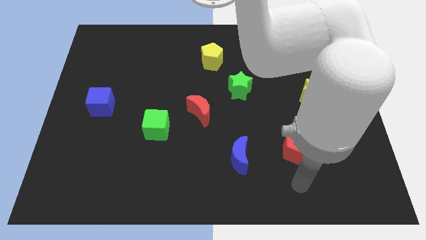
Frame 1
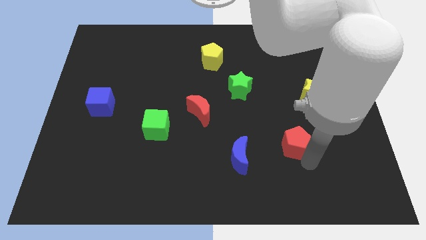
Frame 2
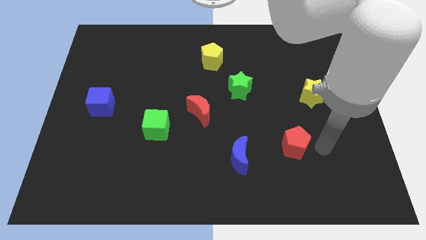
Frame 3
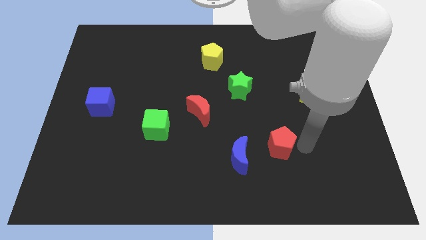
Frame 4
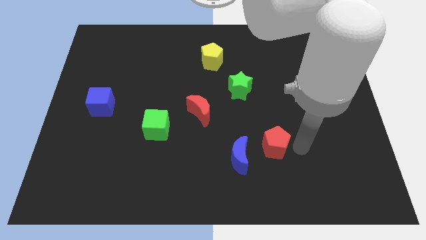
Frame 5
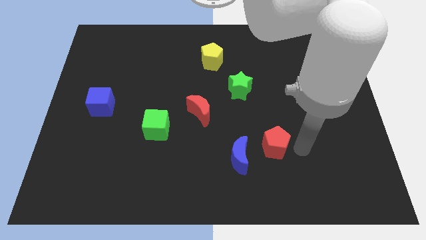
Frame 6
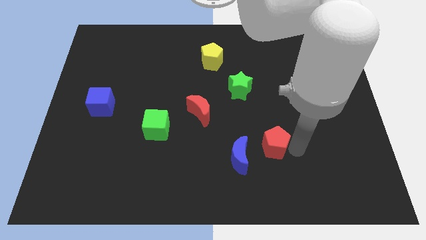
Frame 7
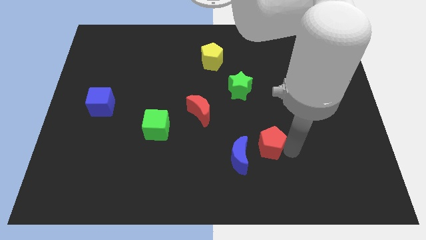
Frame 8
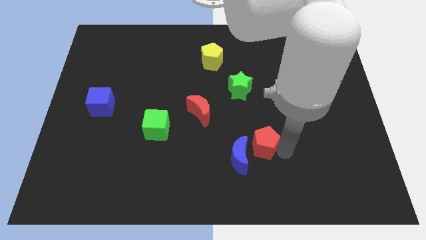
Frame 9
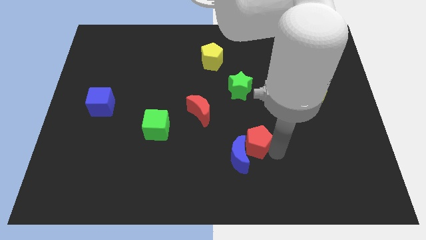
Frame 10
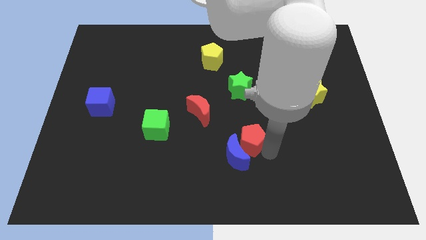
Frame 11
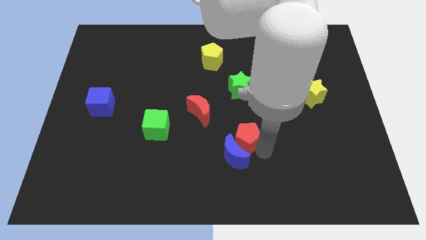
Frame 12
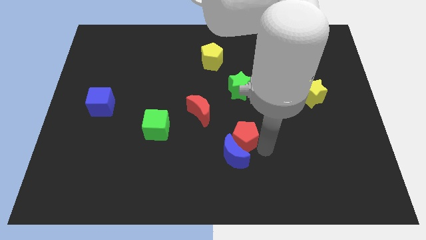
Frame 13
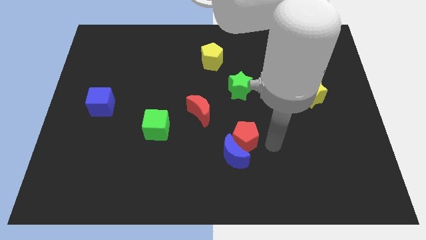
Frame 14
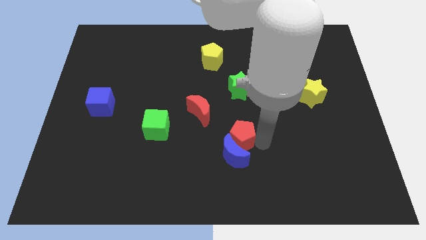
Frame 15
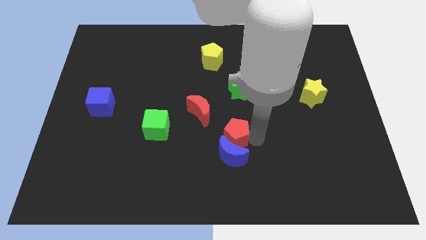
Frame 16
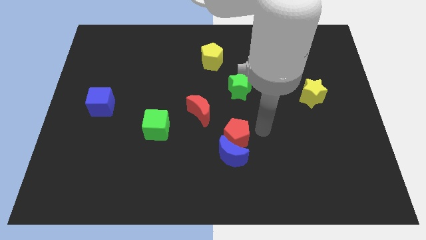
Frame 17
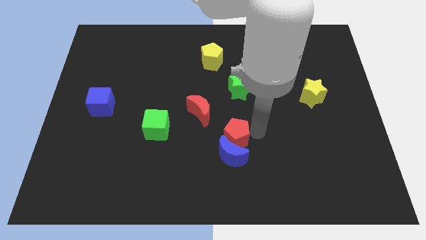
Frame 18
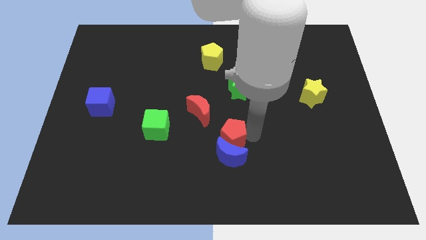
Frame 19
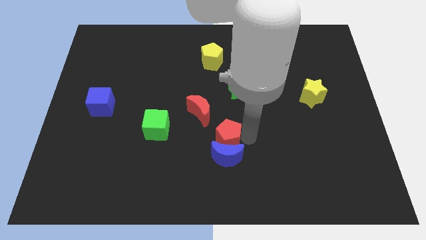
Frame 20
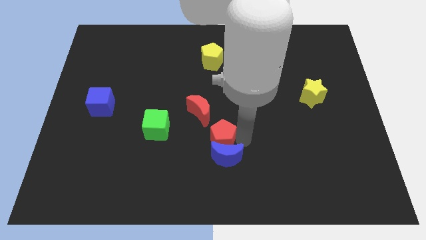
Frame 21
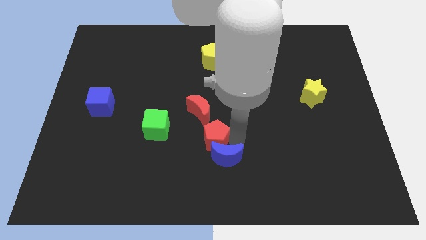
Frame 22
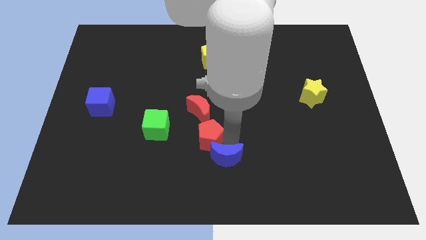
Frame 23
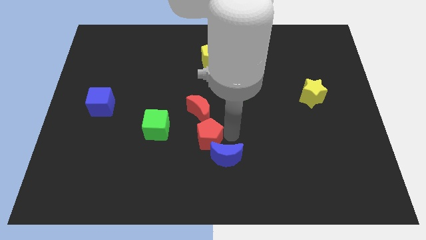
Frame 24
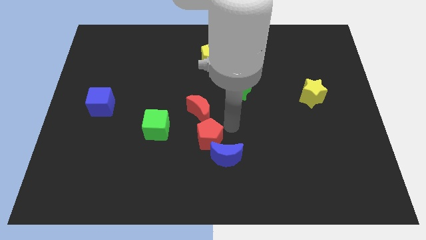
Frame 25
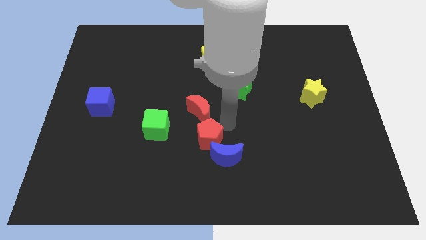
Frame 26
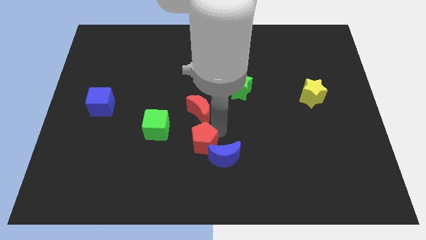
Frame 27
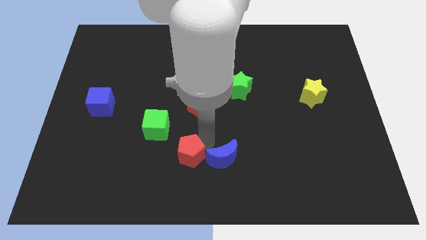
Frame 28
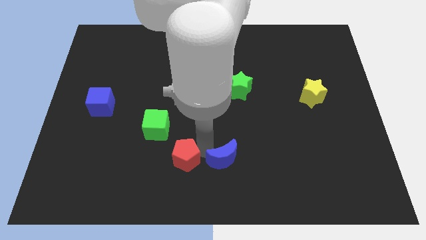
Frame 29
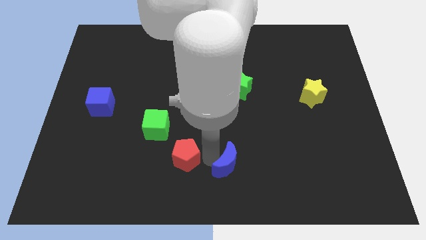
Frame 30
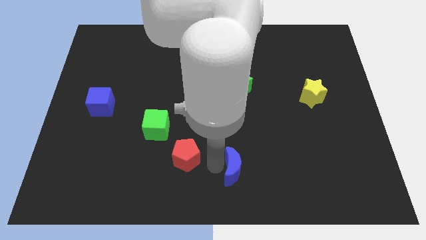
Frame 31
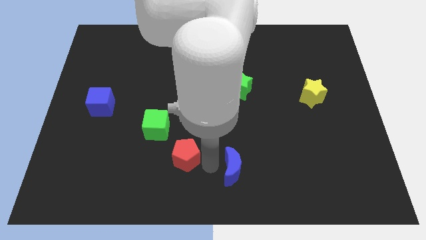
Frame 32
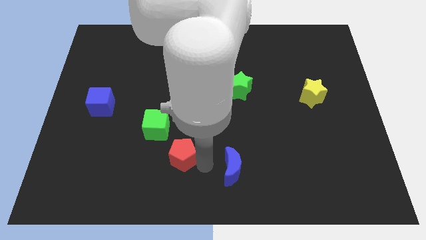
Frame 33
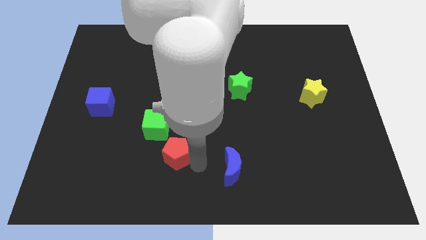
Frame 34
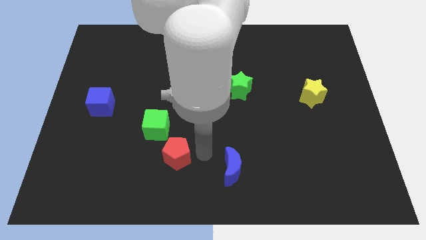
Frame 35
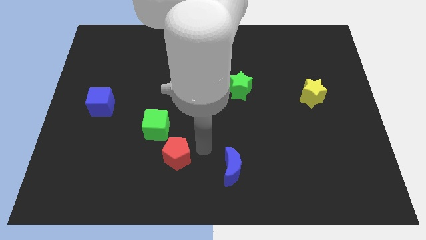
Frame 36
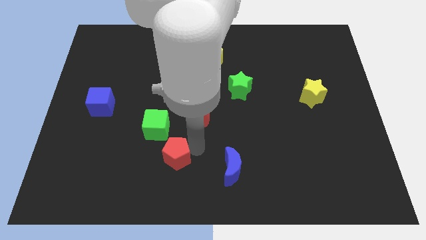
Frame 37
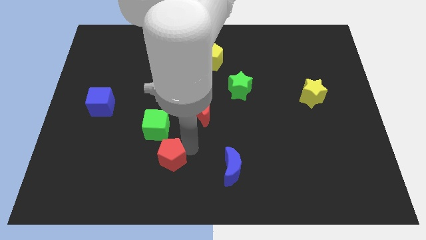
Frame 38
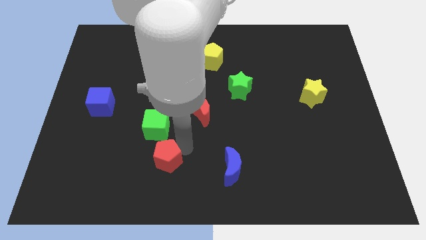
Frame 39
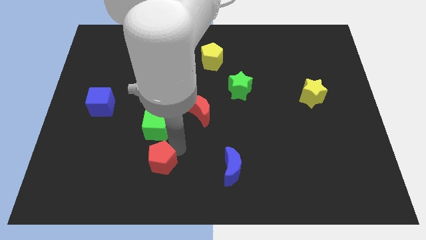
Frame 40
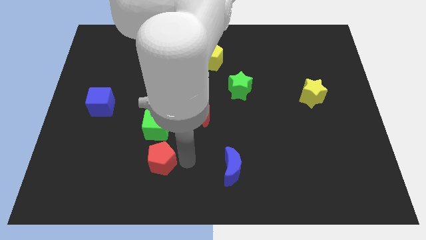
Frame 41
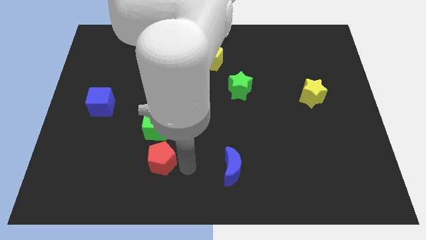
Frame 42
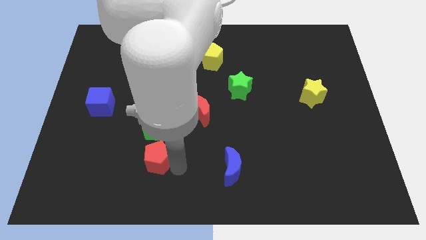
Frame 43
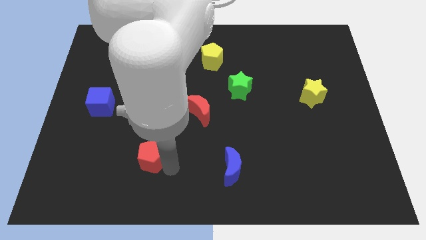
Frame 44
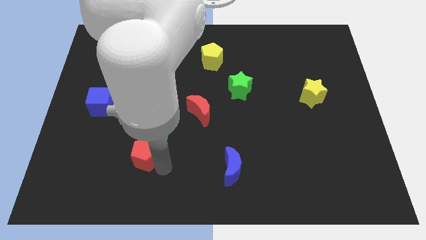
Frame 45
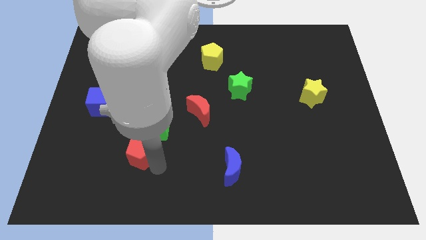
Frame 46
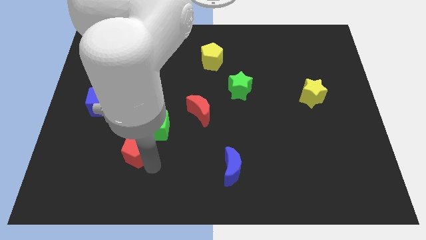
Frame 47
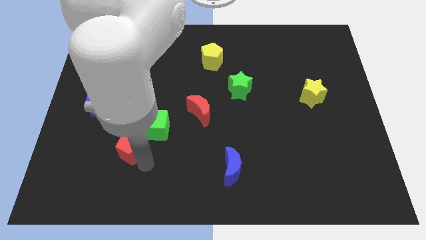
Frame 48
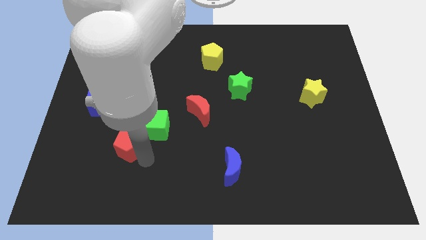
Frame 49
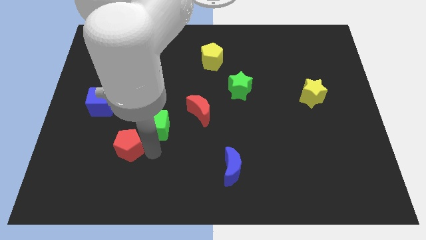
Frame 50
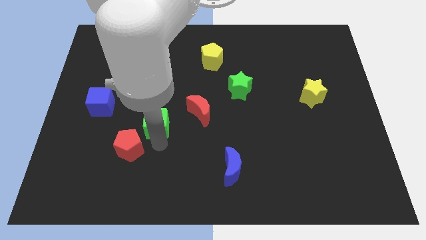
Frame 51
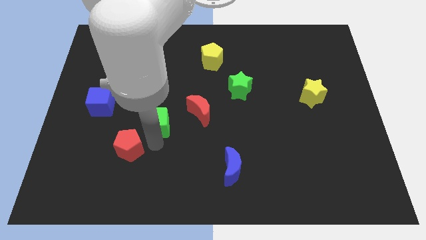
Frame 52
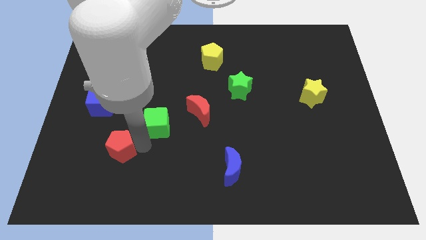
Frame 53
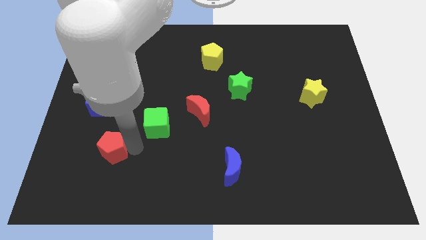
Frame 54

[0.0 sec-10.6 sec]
move the red pentagon to the bottom of the blue cube

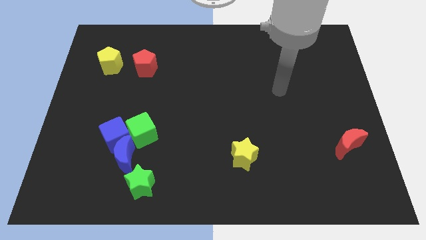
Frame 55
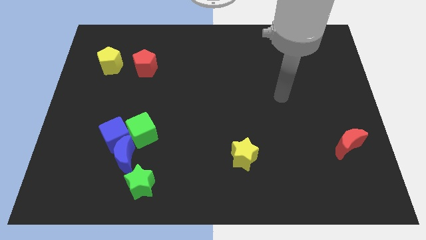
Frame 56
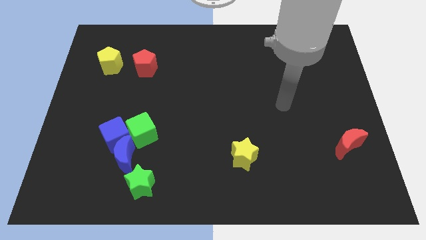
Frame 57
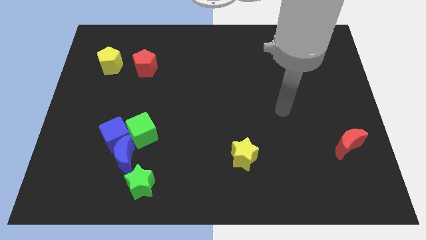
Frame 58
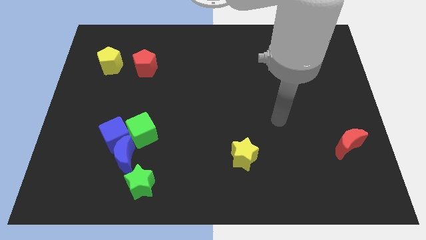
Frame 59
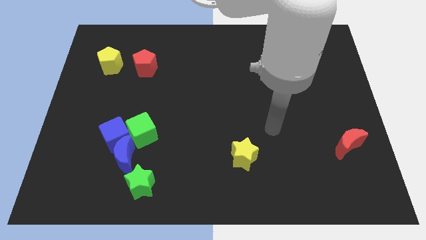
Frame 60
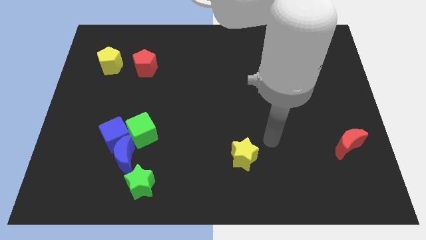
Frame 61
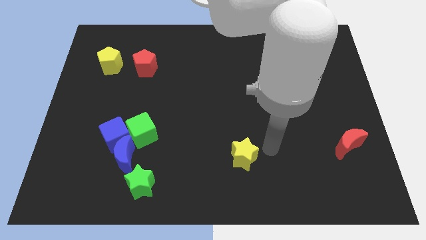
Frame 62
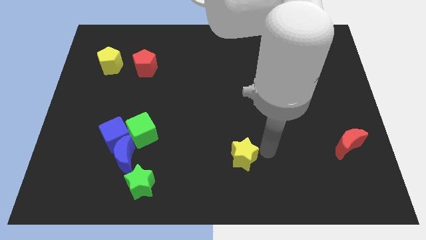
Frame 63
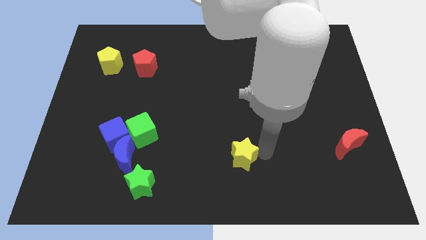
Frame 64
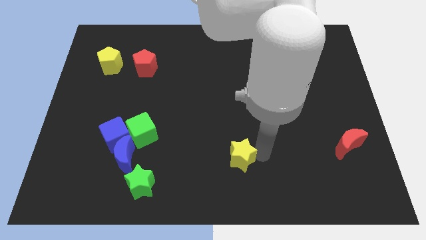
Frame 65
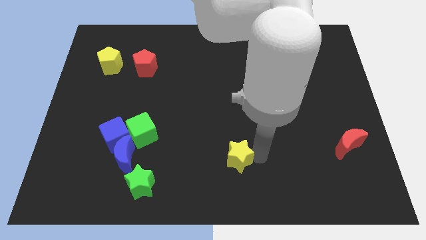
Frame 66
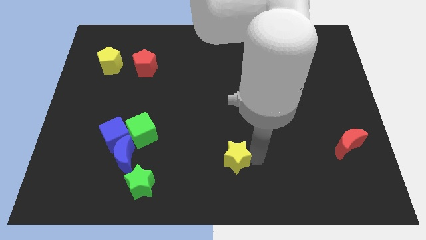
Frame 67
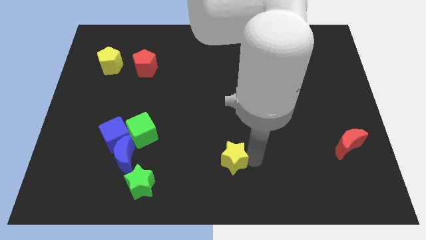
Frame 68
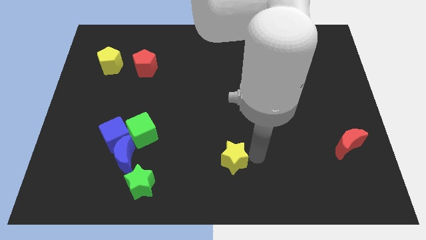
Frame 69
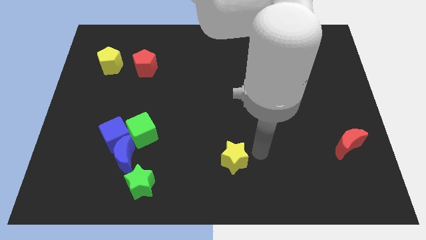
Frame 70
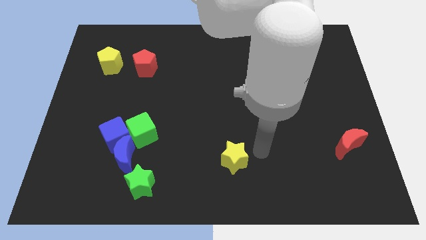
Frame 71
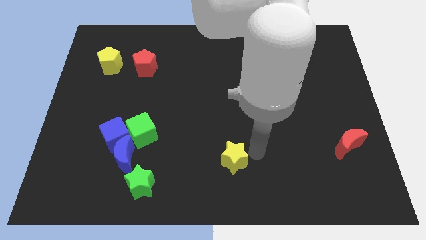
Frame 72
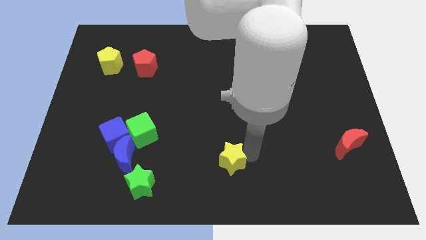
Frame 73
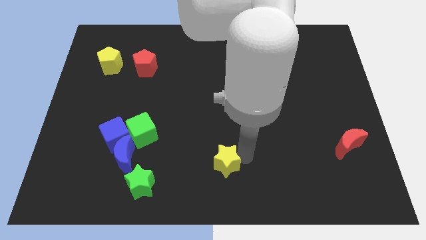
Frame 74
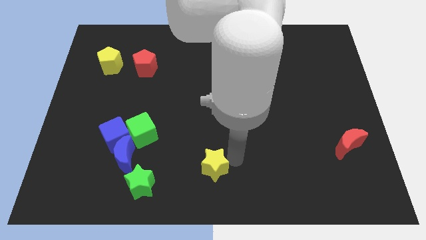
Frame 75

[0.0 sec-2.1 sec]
push the yellow star right of the green star
